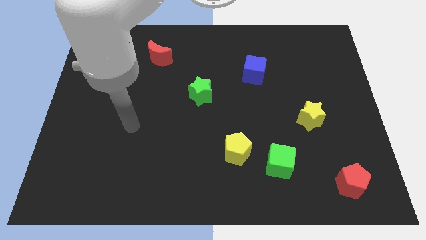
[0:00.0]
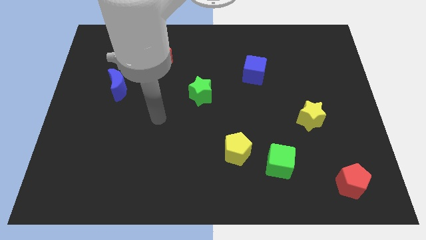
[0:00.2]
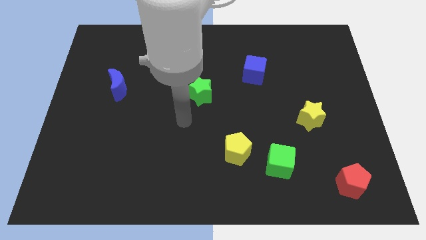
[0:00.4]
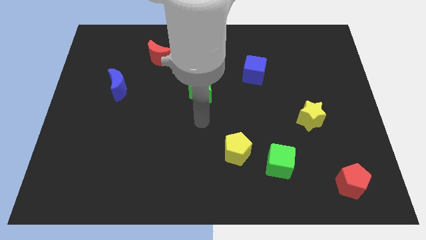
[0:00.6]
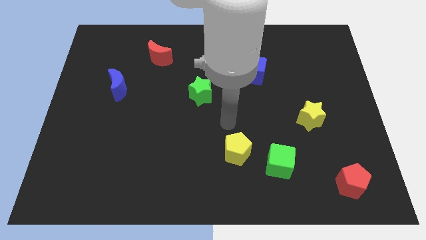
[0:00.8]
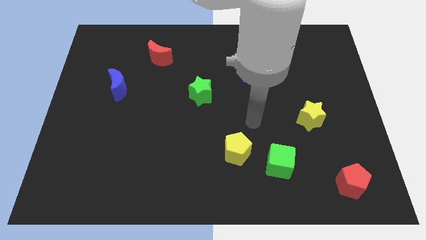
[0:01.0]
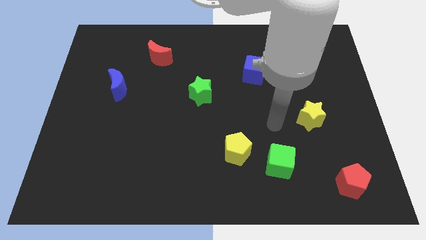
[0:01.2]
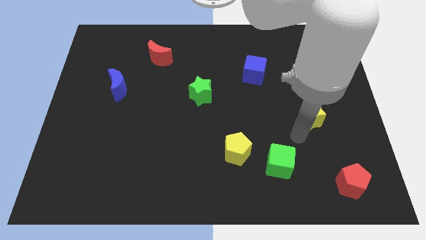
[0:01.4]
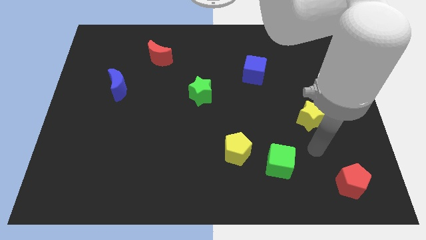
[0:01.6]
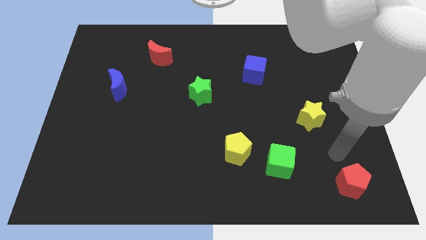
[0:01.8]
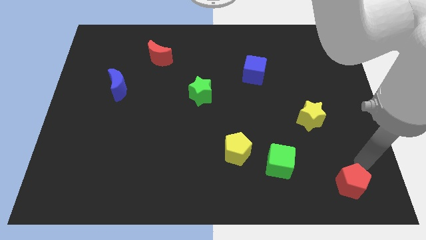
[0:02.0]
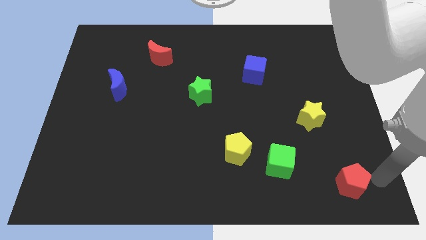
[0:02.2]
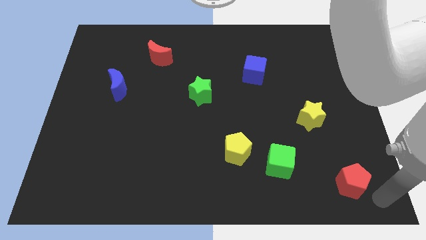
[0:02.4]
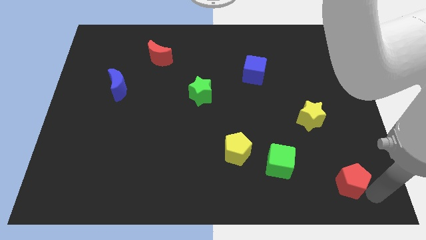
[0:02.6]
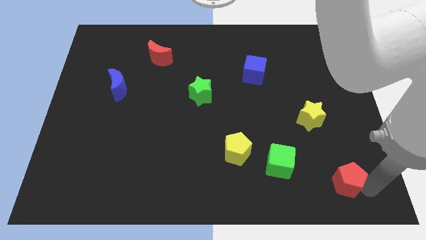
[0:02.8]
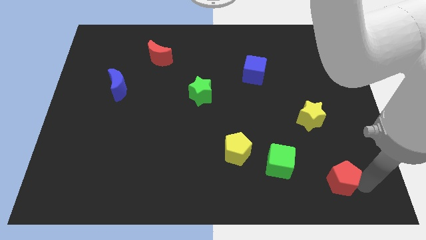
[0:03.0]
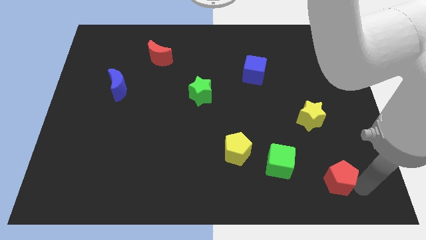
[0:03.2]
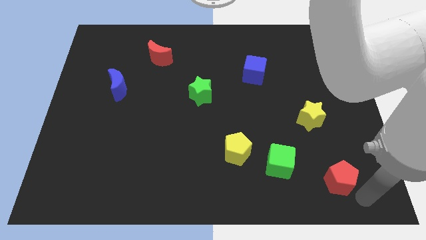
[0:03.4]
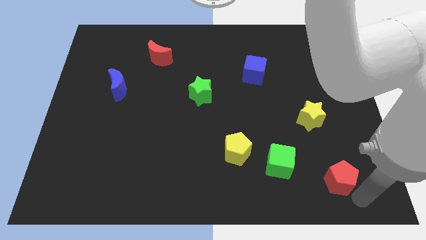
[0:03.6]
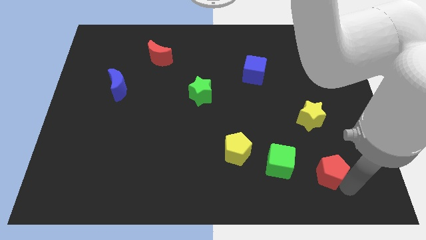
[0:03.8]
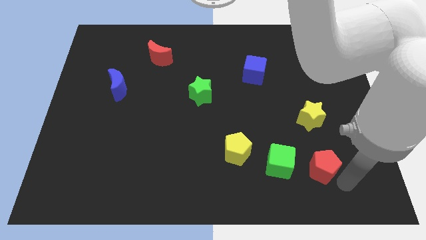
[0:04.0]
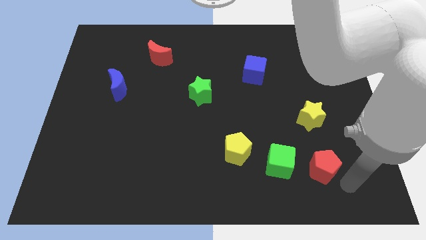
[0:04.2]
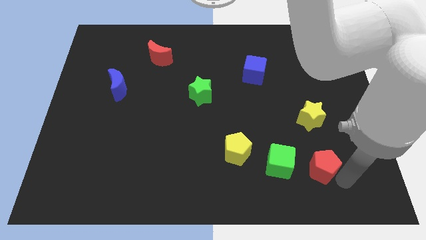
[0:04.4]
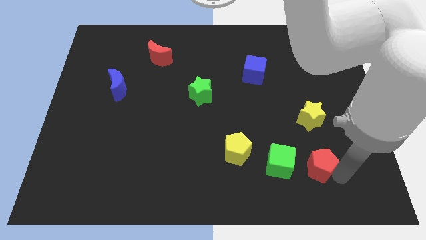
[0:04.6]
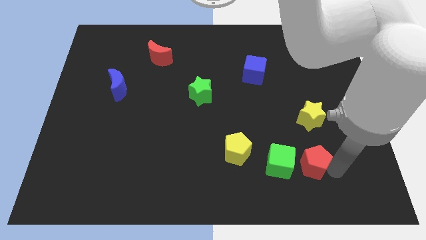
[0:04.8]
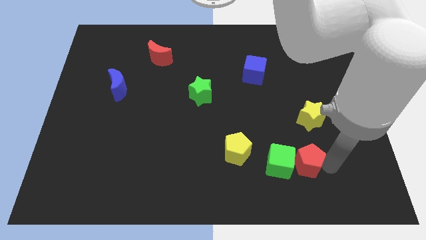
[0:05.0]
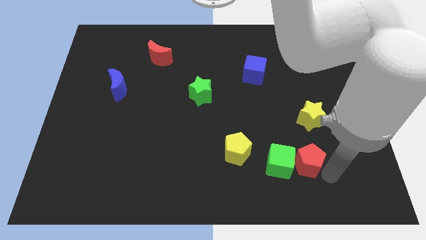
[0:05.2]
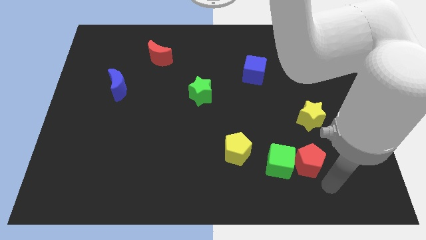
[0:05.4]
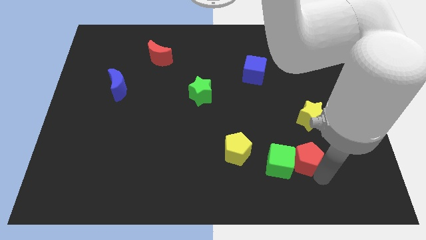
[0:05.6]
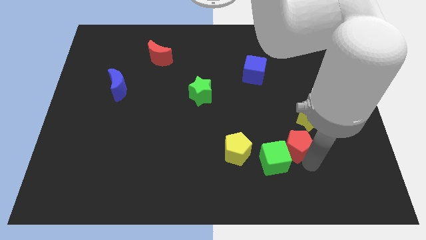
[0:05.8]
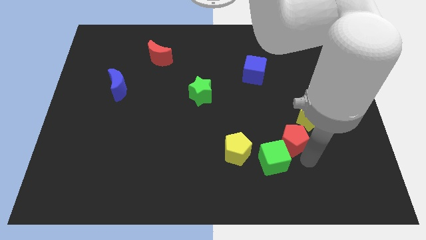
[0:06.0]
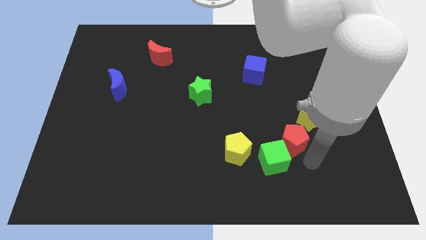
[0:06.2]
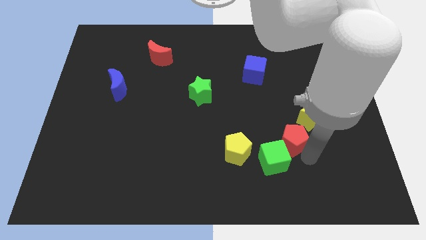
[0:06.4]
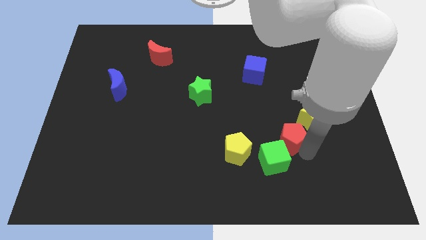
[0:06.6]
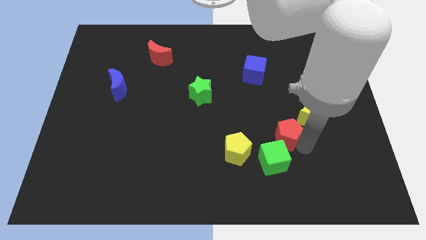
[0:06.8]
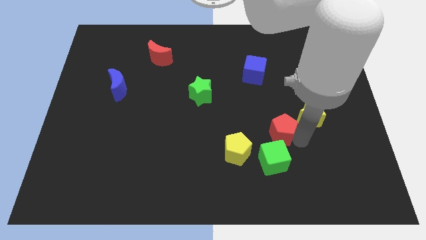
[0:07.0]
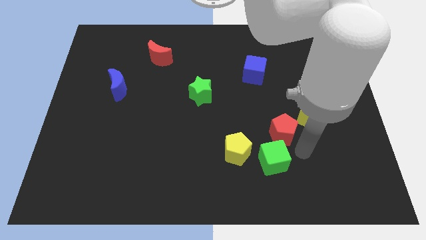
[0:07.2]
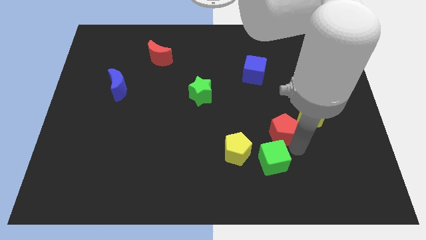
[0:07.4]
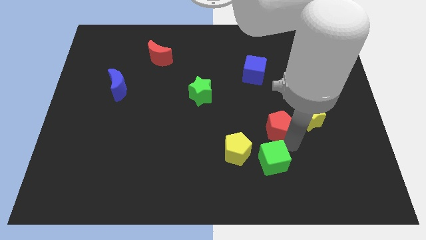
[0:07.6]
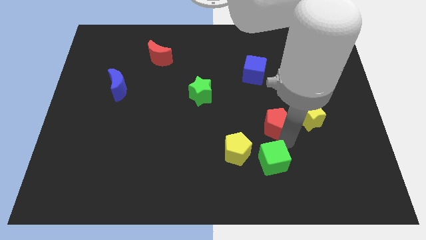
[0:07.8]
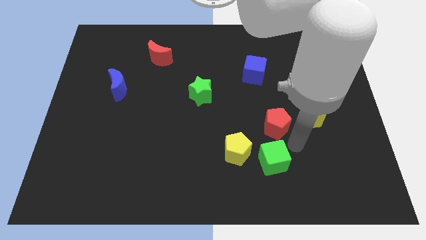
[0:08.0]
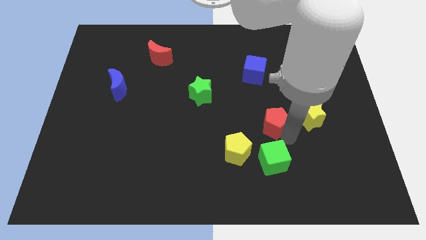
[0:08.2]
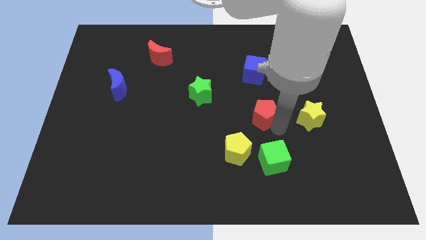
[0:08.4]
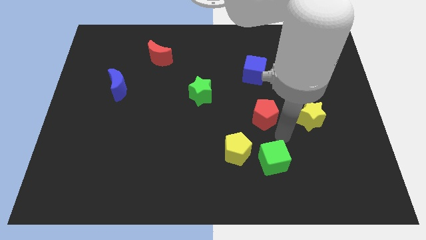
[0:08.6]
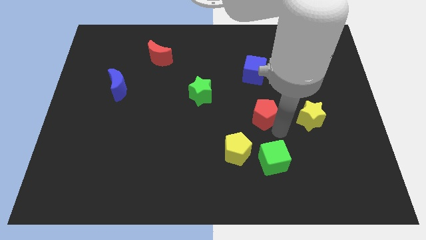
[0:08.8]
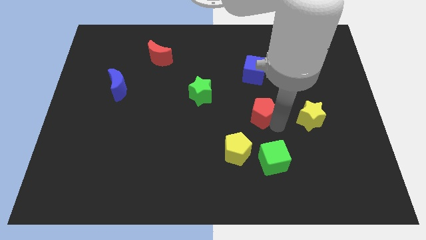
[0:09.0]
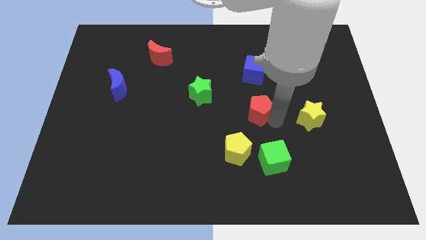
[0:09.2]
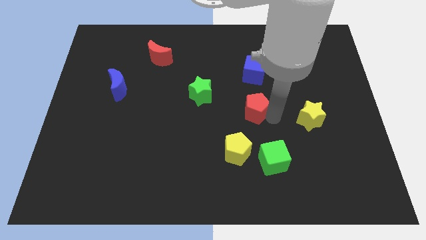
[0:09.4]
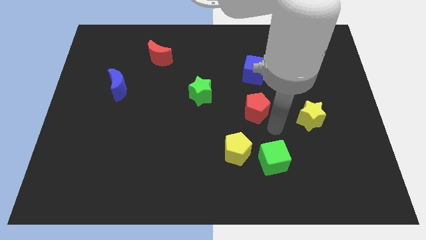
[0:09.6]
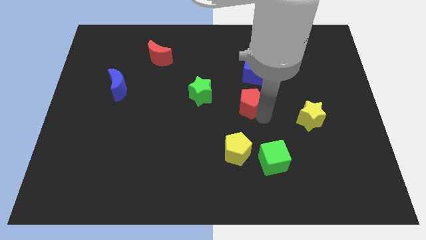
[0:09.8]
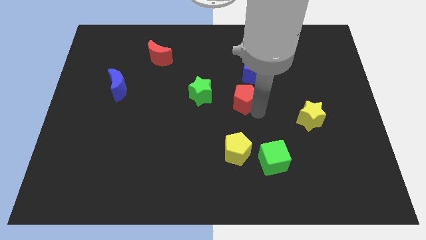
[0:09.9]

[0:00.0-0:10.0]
move the red pentagon to the bottom left side of the blue cube

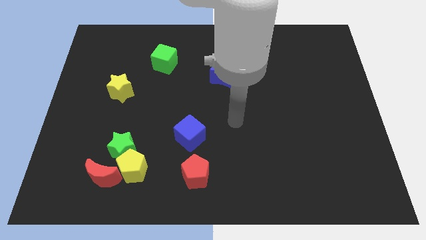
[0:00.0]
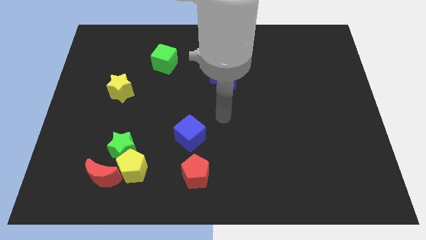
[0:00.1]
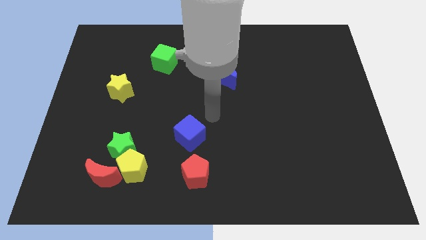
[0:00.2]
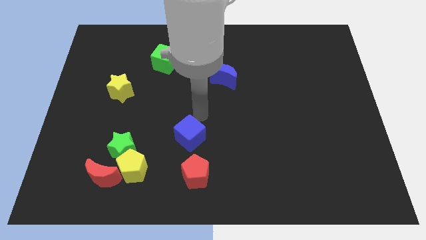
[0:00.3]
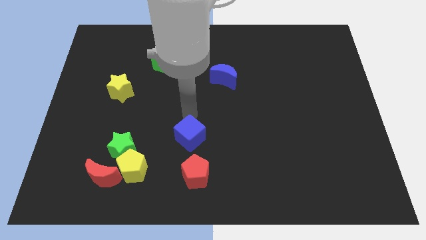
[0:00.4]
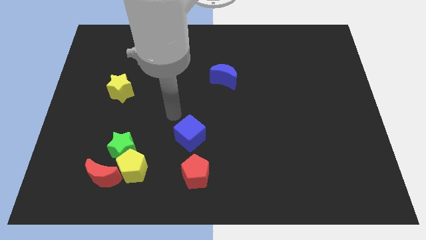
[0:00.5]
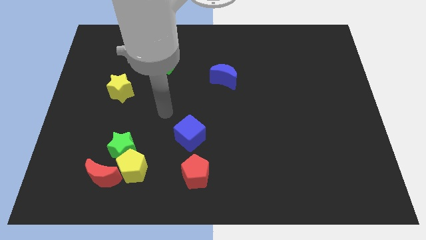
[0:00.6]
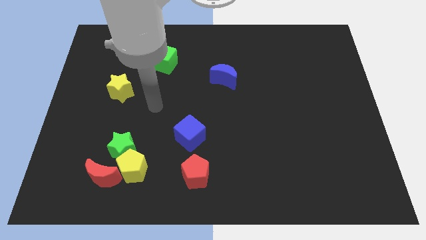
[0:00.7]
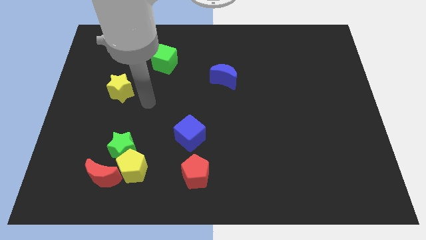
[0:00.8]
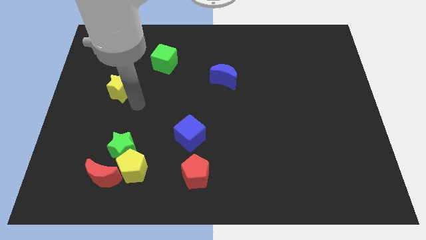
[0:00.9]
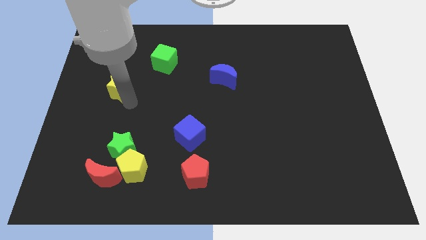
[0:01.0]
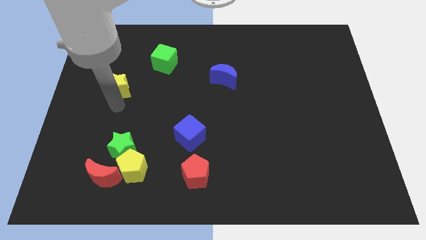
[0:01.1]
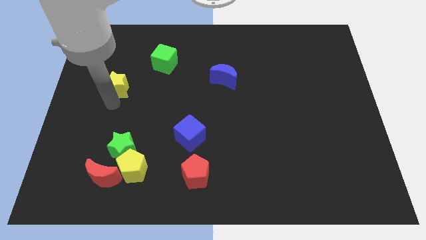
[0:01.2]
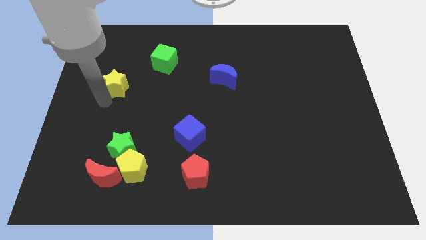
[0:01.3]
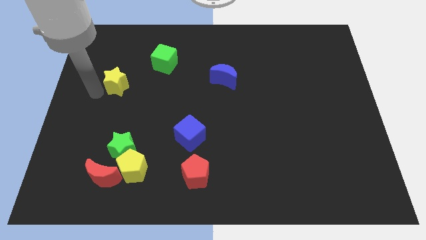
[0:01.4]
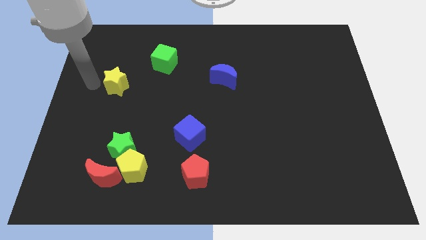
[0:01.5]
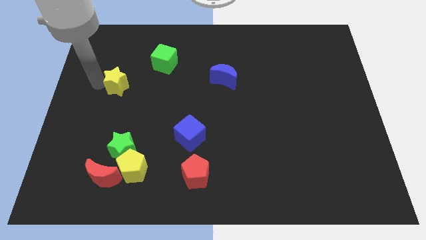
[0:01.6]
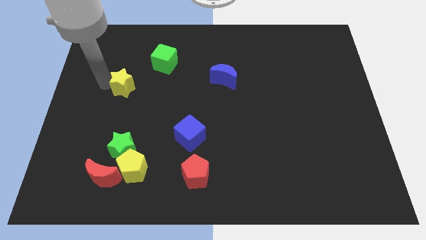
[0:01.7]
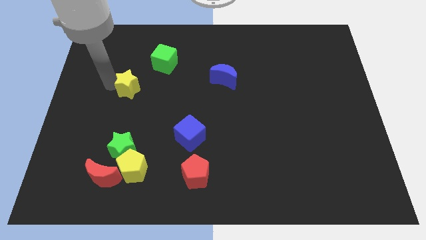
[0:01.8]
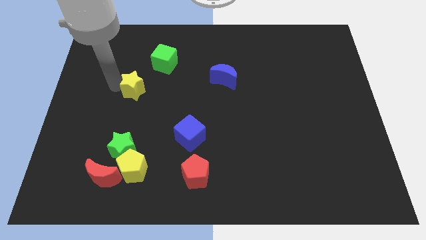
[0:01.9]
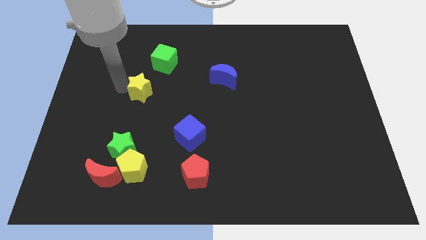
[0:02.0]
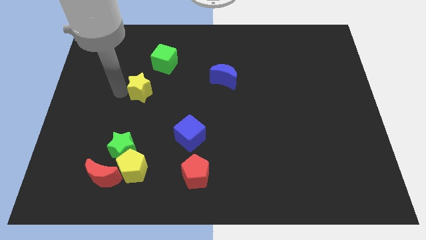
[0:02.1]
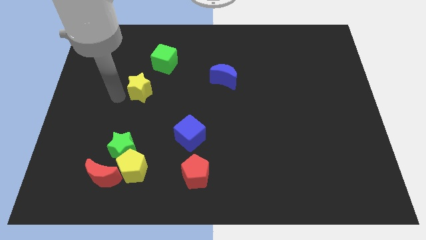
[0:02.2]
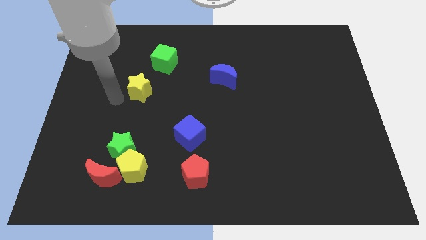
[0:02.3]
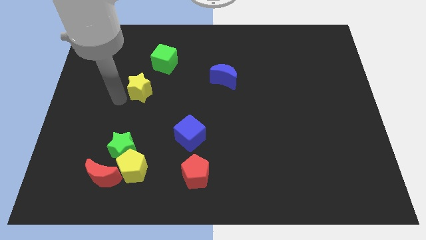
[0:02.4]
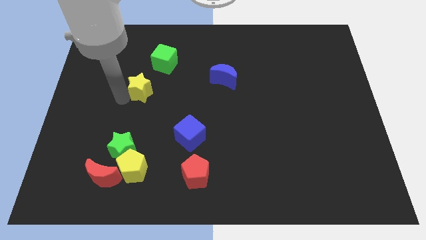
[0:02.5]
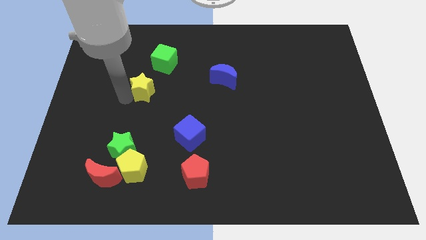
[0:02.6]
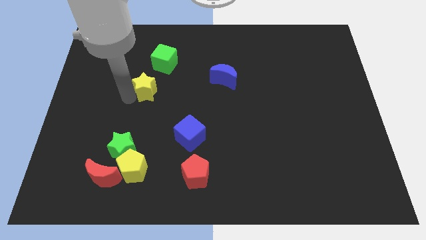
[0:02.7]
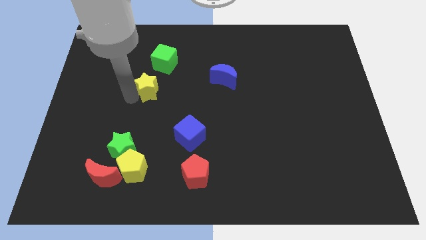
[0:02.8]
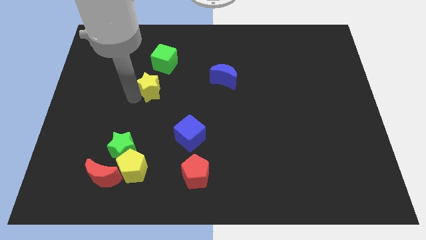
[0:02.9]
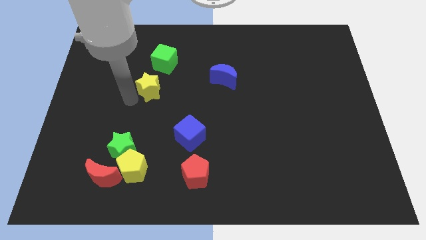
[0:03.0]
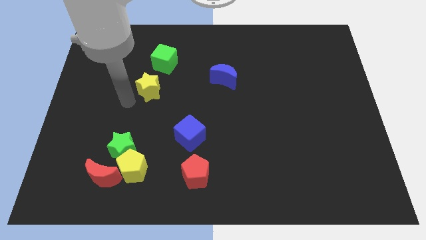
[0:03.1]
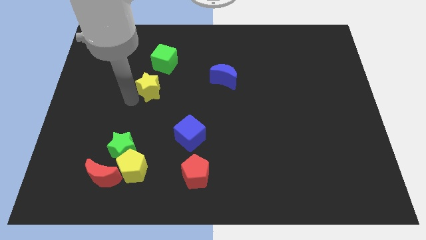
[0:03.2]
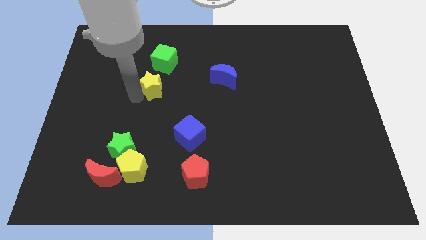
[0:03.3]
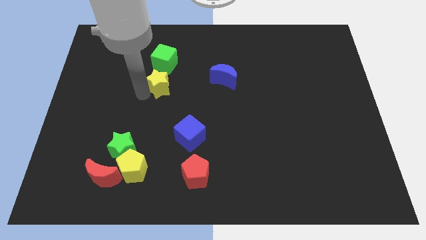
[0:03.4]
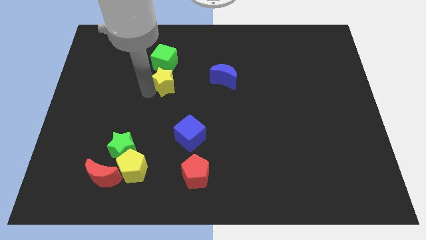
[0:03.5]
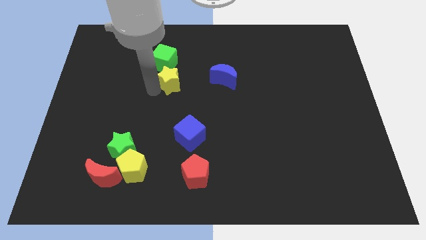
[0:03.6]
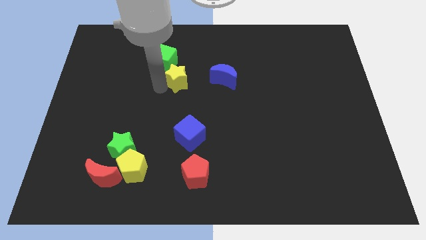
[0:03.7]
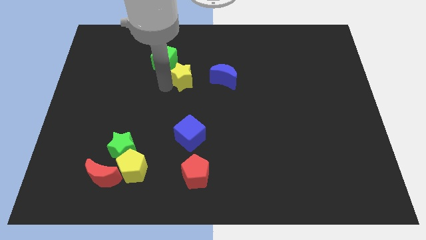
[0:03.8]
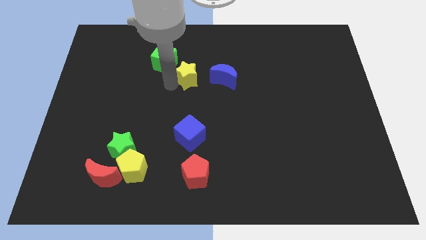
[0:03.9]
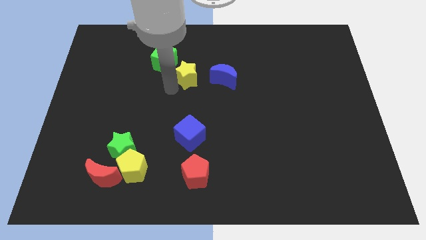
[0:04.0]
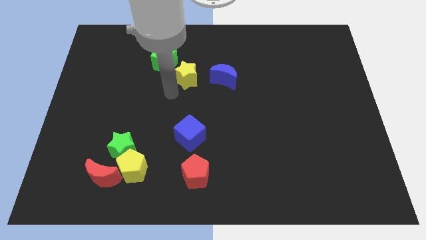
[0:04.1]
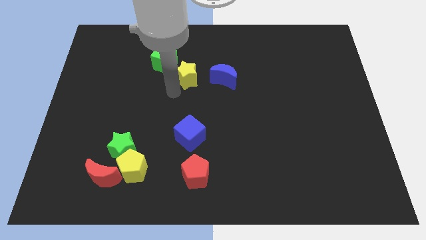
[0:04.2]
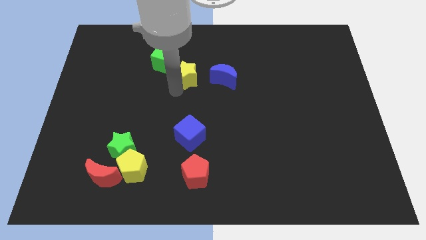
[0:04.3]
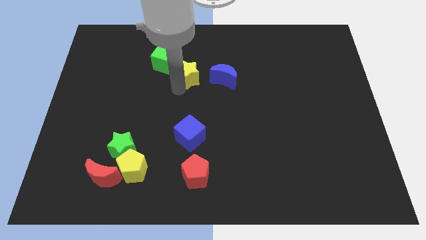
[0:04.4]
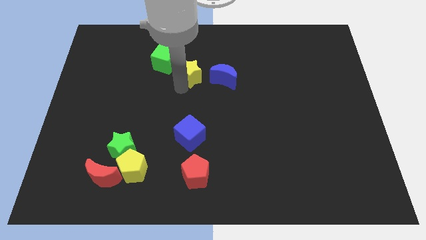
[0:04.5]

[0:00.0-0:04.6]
slide the yellow star right of the green cube
